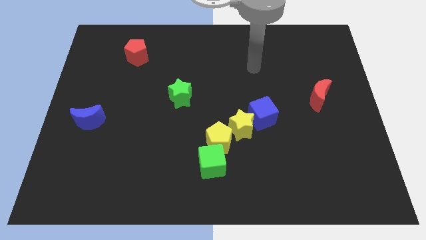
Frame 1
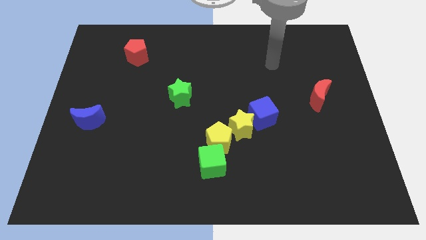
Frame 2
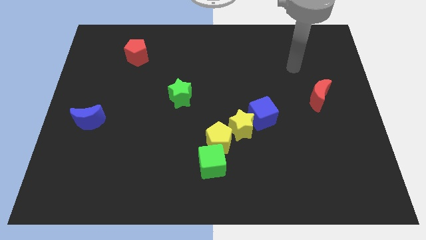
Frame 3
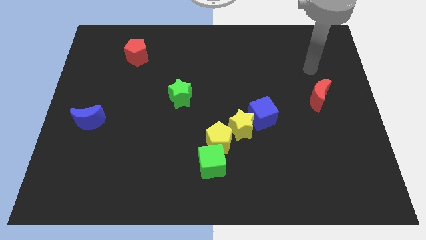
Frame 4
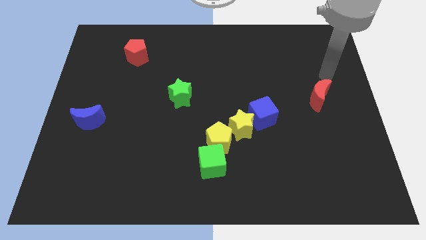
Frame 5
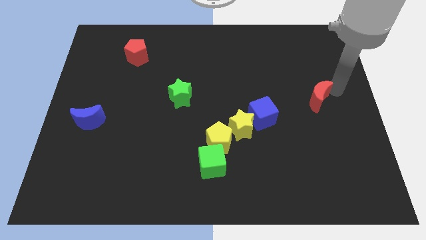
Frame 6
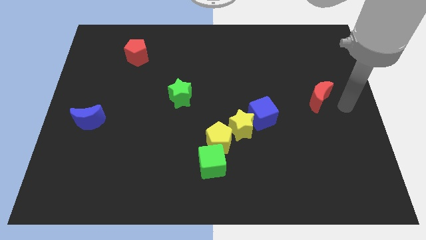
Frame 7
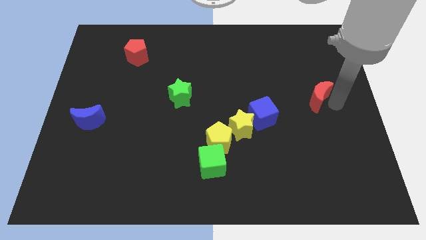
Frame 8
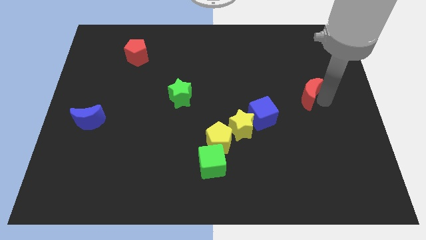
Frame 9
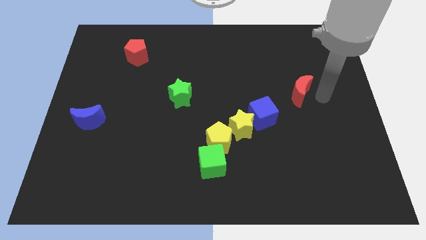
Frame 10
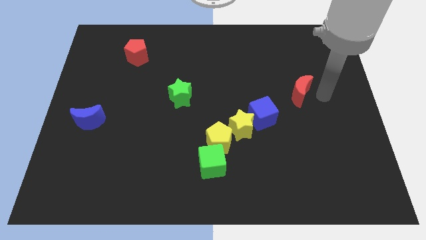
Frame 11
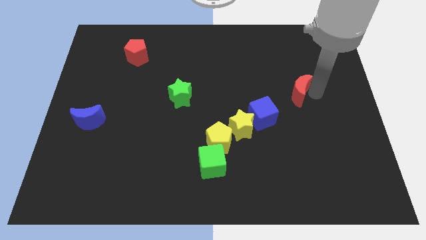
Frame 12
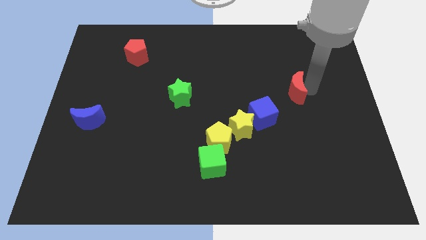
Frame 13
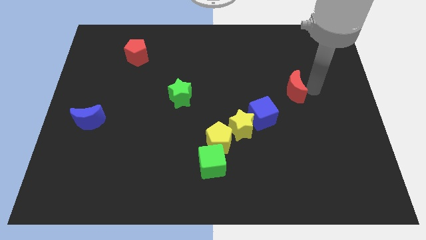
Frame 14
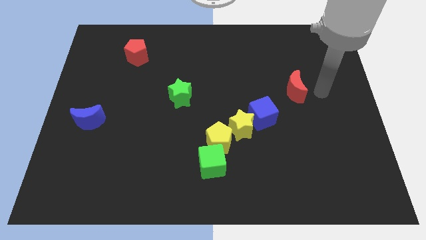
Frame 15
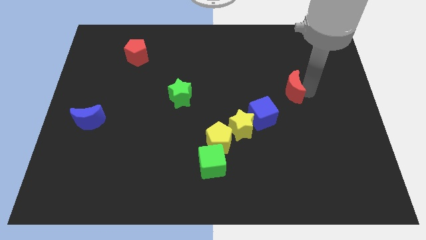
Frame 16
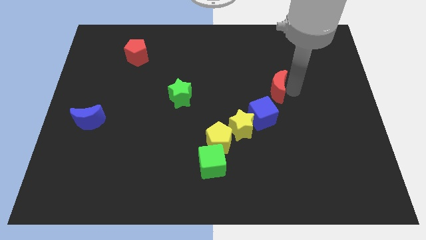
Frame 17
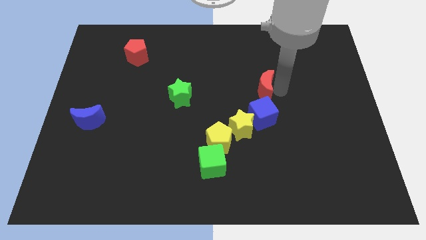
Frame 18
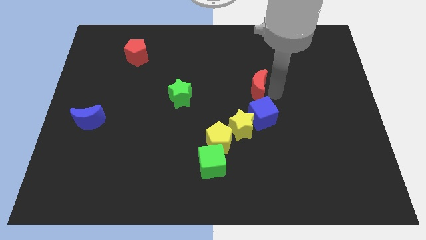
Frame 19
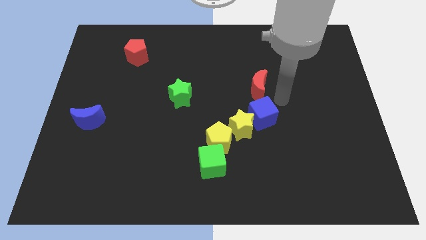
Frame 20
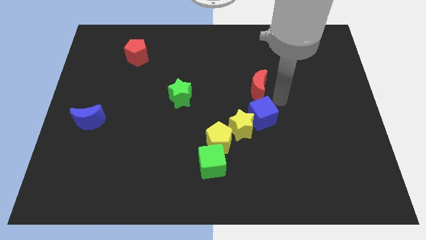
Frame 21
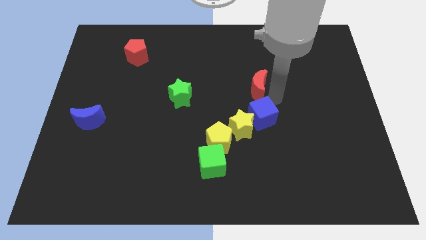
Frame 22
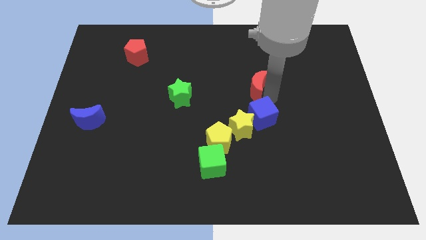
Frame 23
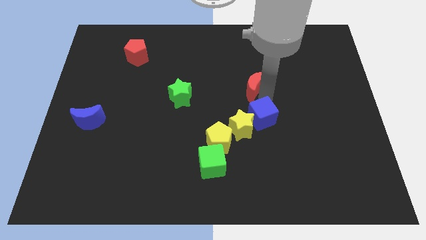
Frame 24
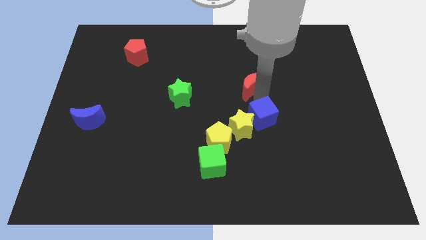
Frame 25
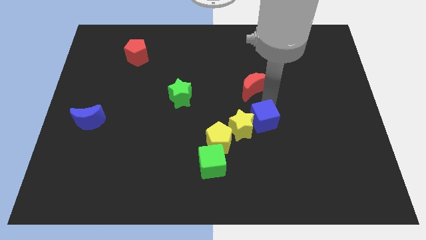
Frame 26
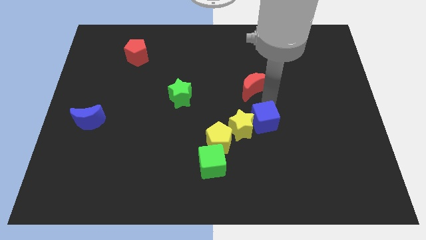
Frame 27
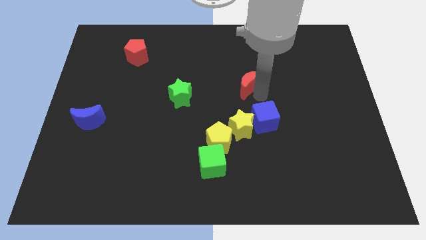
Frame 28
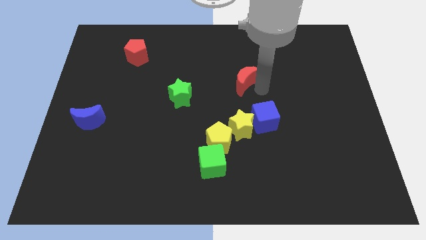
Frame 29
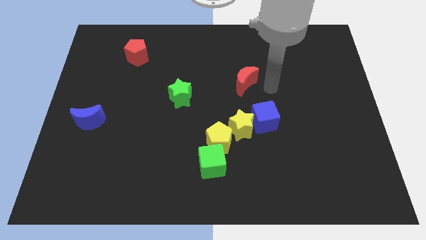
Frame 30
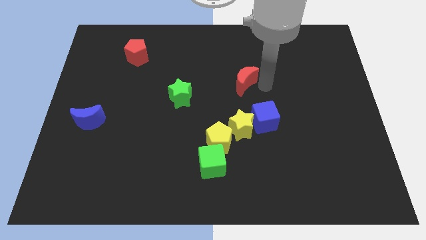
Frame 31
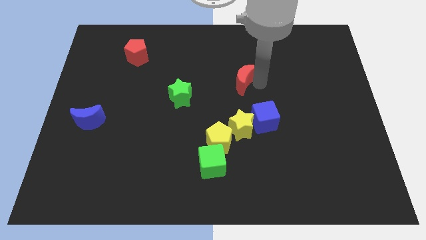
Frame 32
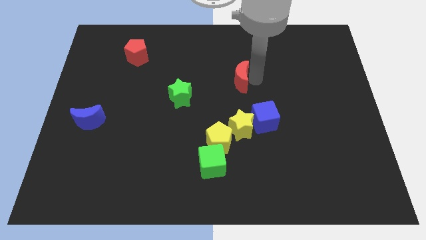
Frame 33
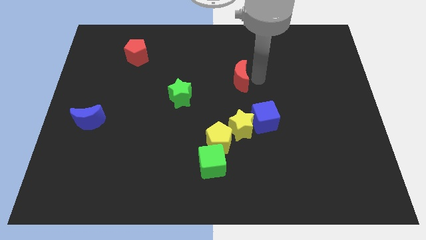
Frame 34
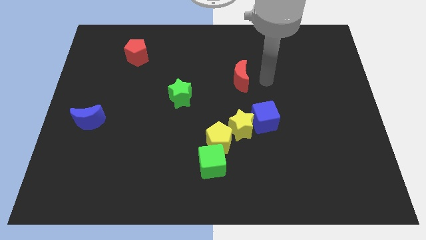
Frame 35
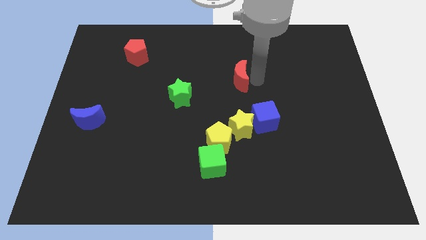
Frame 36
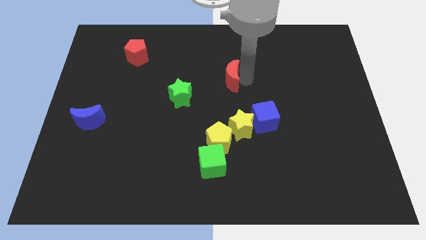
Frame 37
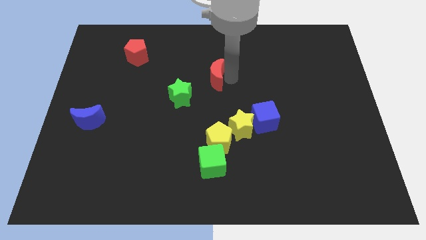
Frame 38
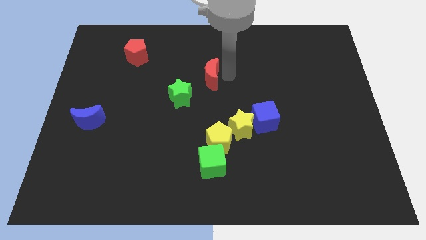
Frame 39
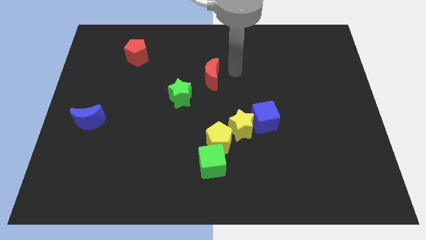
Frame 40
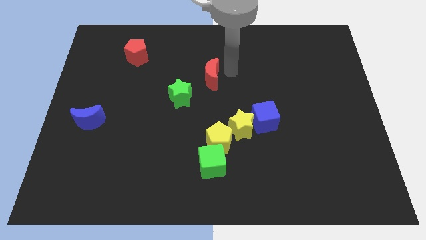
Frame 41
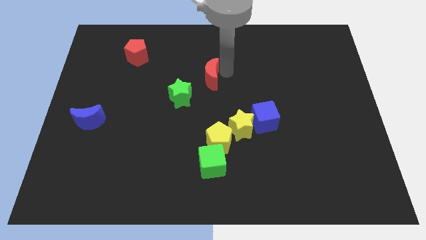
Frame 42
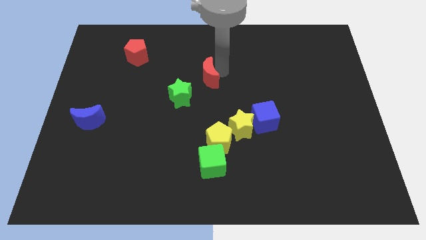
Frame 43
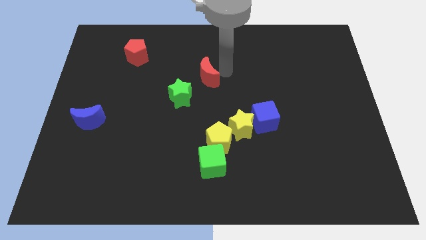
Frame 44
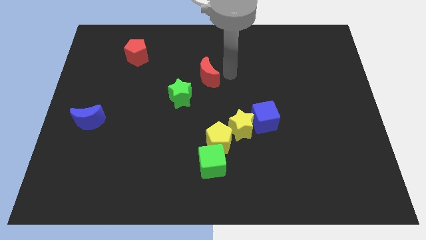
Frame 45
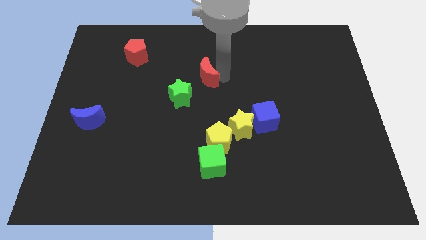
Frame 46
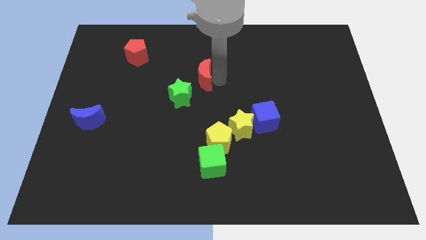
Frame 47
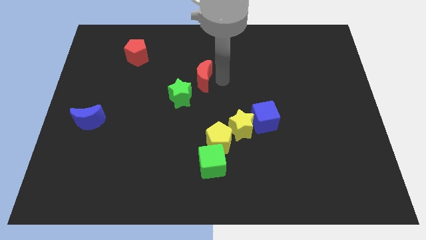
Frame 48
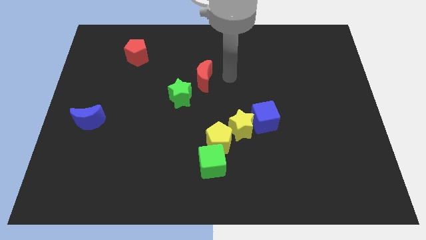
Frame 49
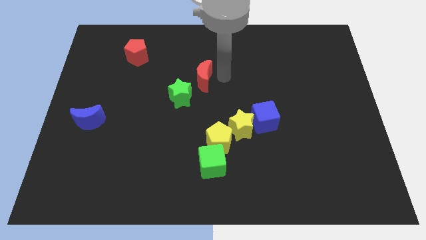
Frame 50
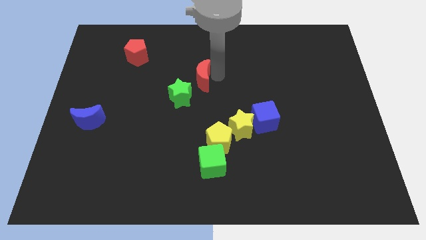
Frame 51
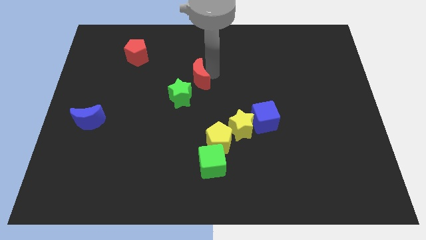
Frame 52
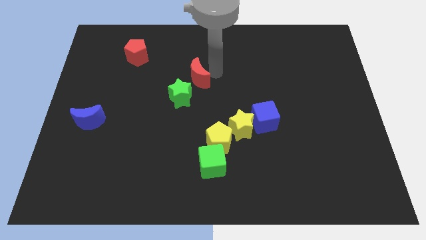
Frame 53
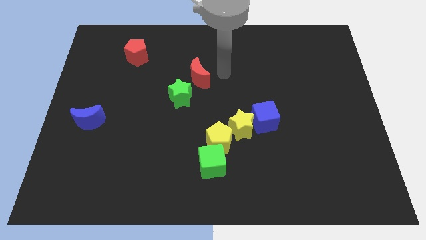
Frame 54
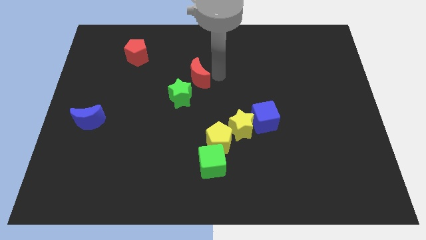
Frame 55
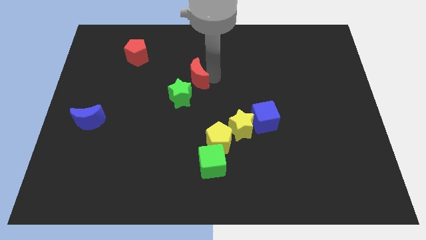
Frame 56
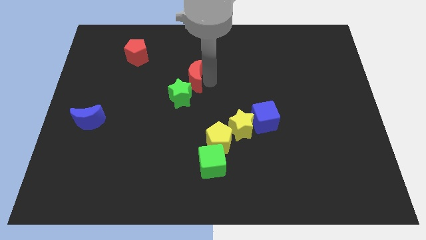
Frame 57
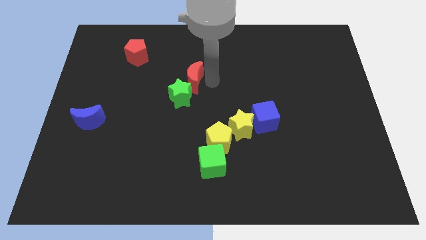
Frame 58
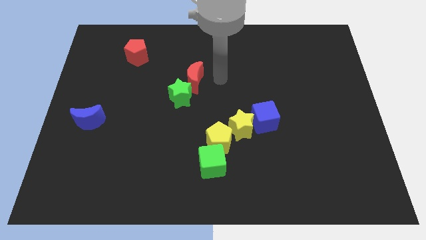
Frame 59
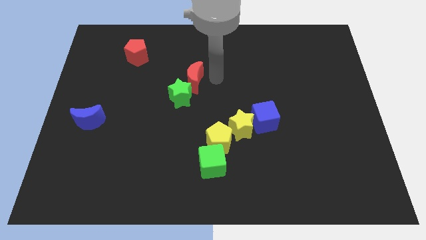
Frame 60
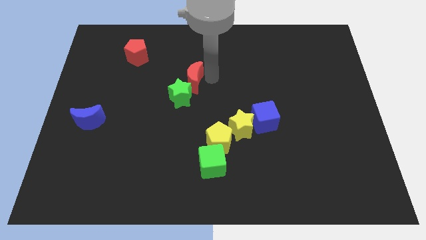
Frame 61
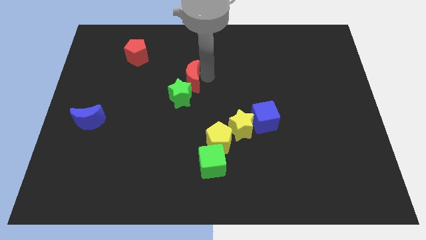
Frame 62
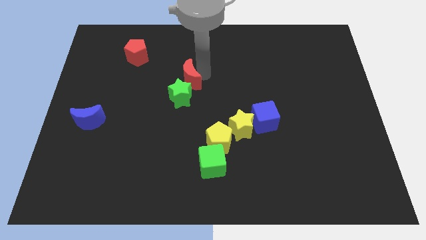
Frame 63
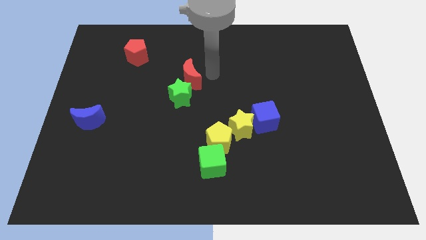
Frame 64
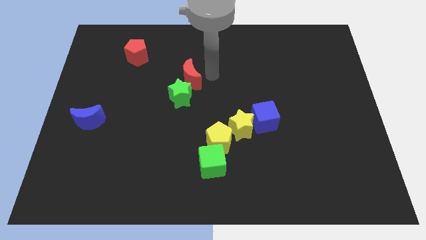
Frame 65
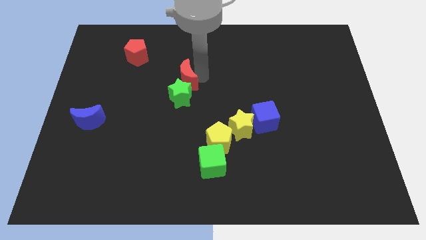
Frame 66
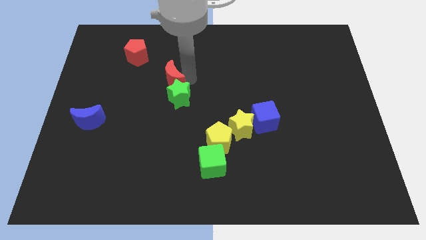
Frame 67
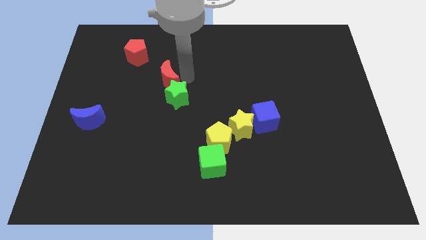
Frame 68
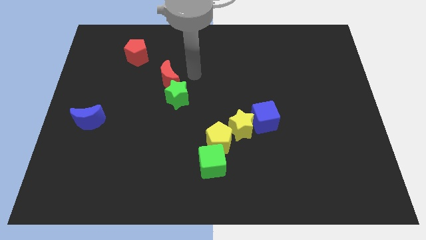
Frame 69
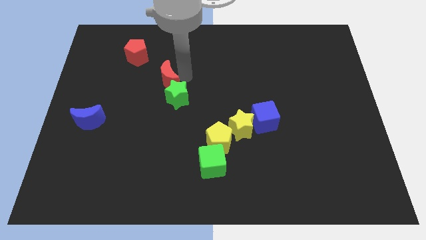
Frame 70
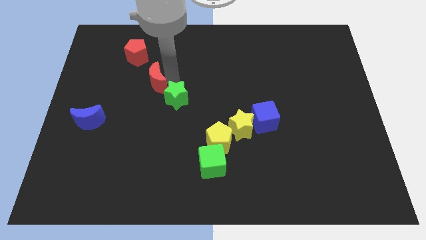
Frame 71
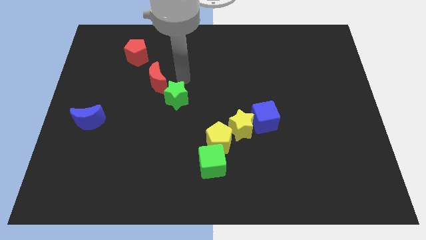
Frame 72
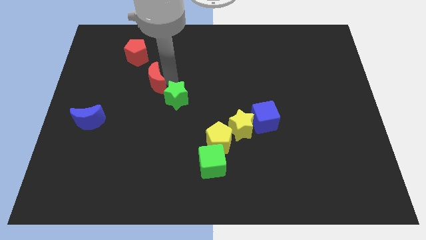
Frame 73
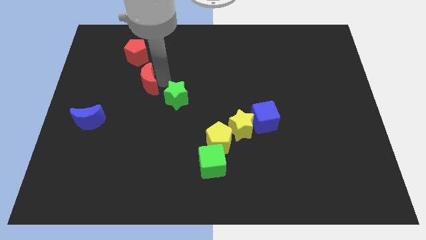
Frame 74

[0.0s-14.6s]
put the red moon to the bottom side of the red pentagon
